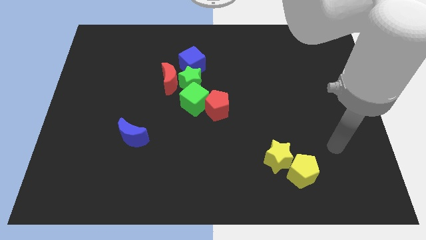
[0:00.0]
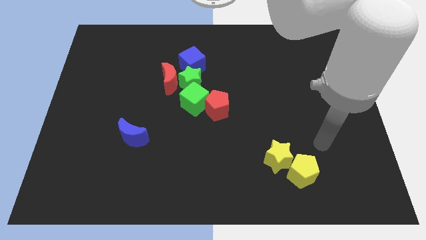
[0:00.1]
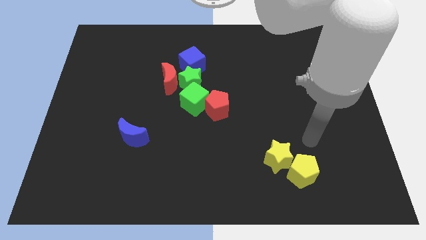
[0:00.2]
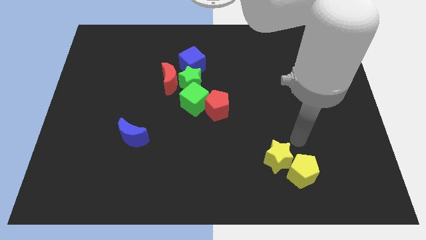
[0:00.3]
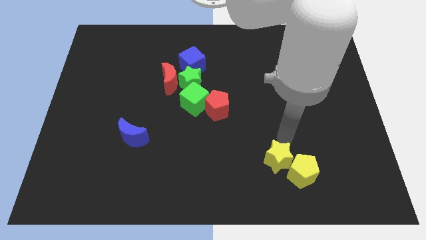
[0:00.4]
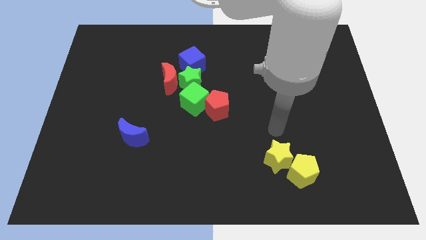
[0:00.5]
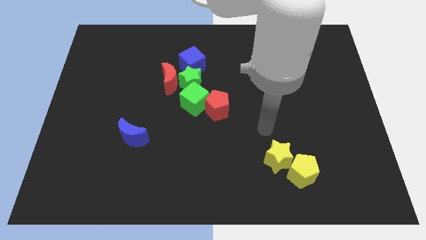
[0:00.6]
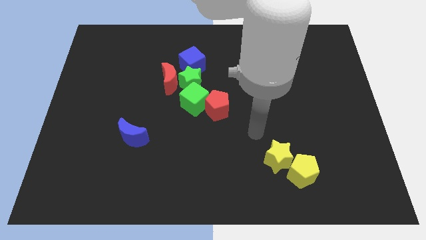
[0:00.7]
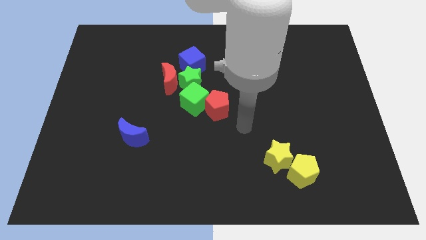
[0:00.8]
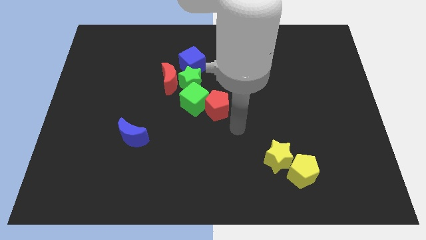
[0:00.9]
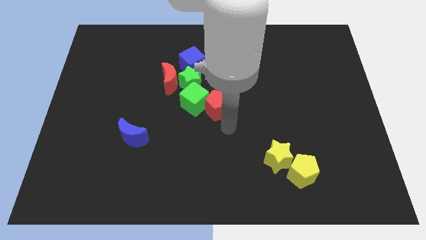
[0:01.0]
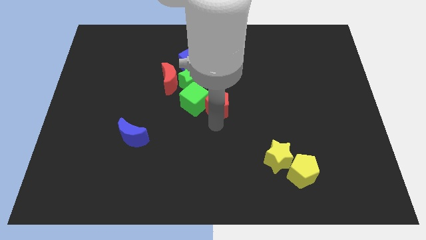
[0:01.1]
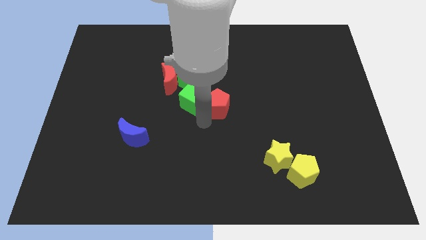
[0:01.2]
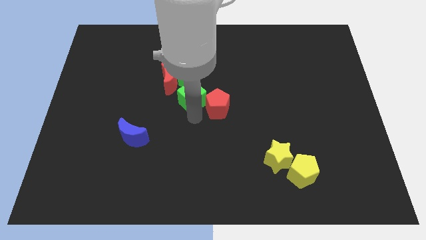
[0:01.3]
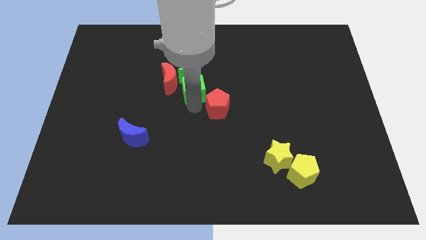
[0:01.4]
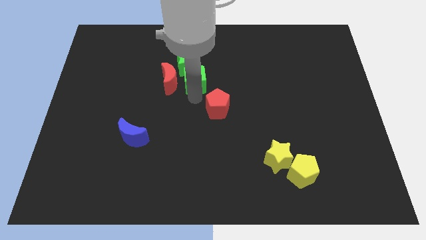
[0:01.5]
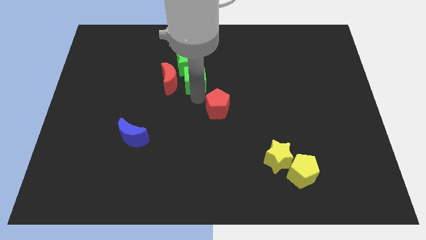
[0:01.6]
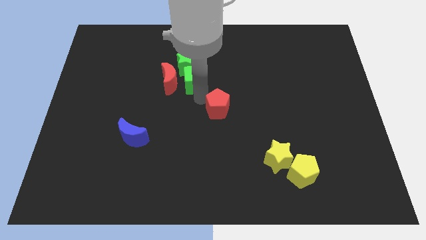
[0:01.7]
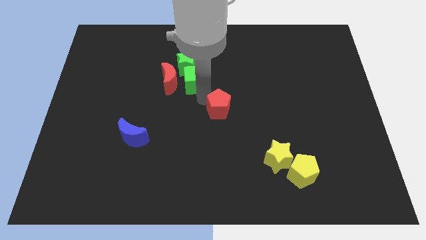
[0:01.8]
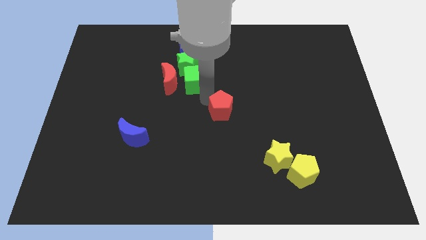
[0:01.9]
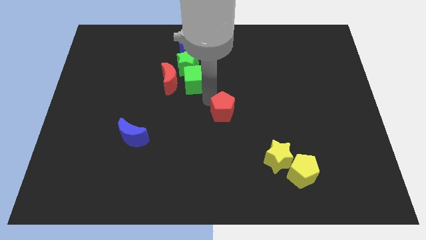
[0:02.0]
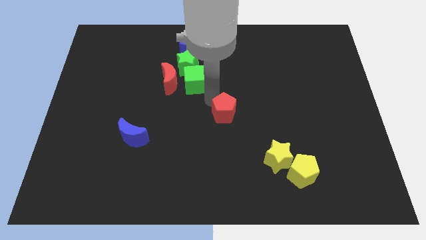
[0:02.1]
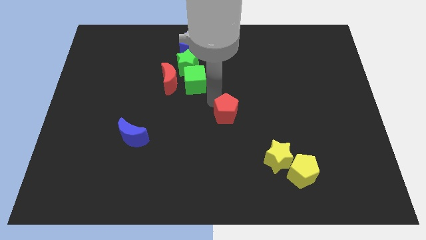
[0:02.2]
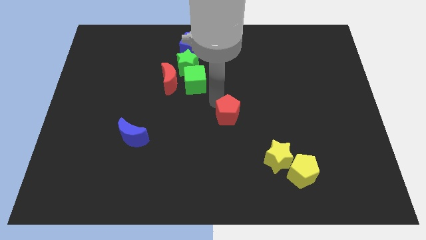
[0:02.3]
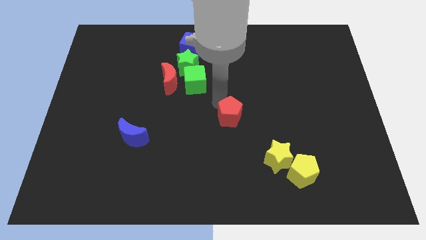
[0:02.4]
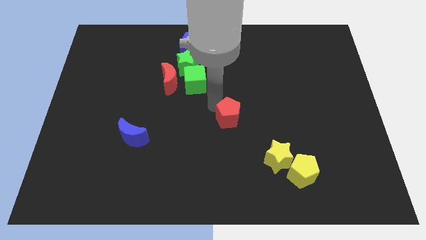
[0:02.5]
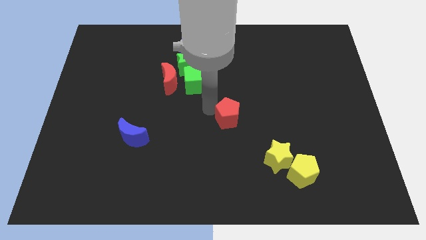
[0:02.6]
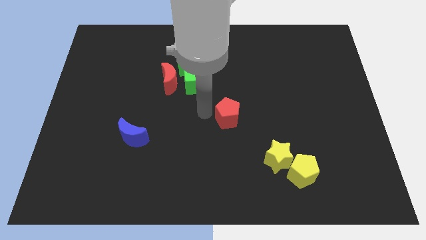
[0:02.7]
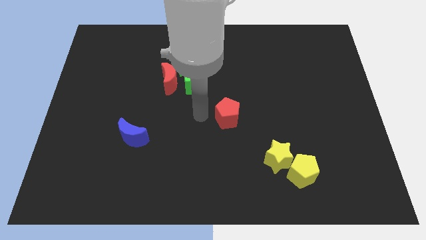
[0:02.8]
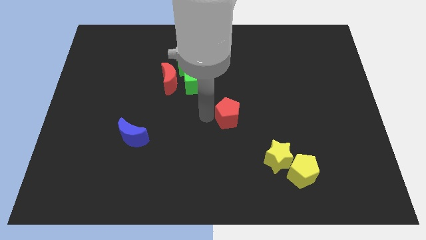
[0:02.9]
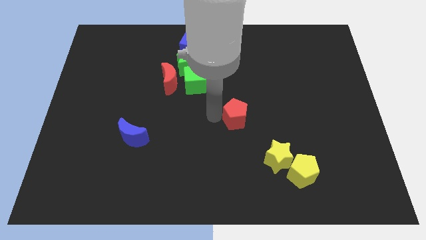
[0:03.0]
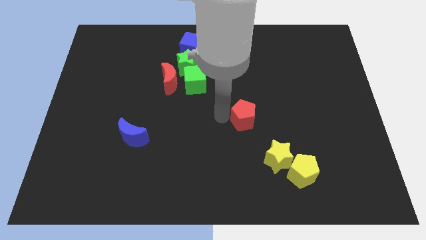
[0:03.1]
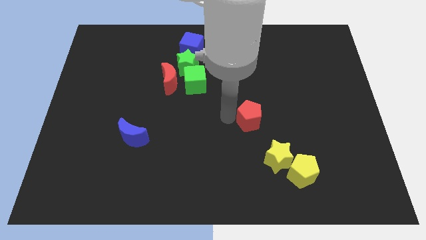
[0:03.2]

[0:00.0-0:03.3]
push the red pentagon a little to the right

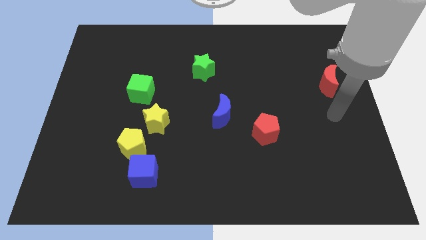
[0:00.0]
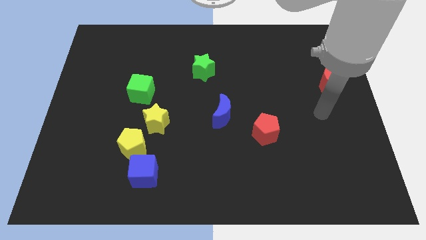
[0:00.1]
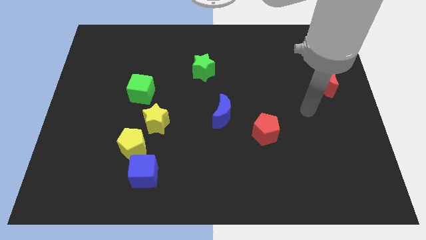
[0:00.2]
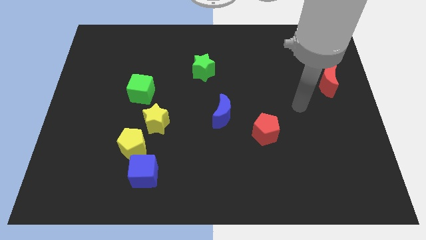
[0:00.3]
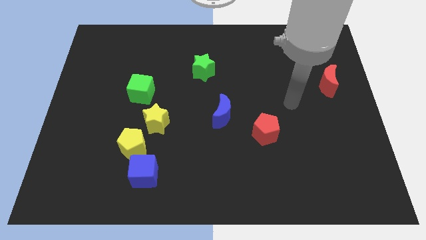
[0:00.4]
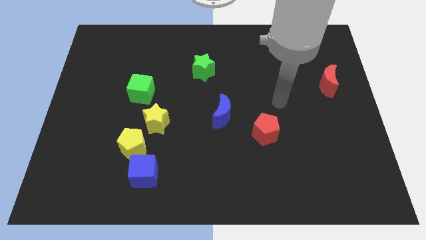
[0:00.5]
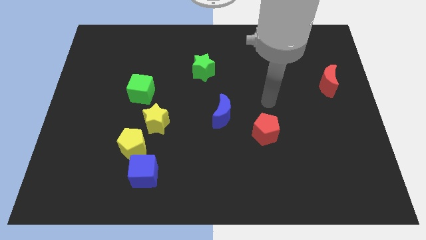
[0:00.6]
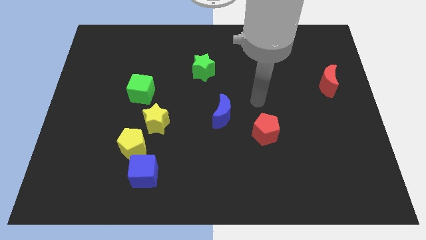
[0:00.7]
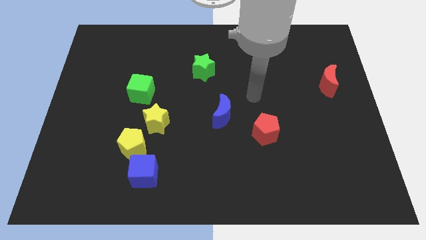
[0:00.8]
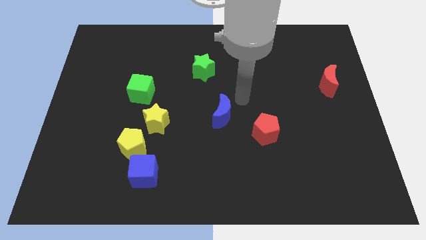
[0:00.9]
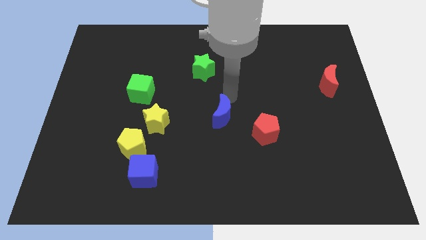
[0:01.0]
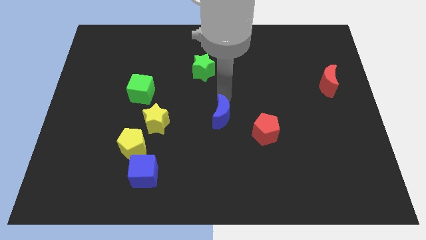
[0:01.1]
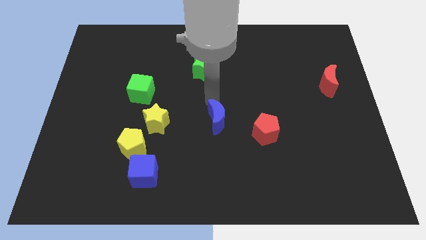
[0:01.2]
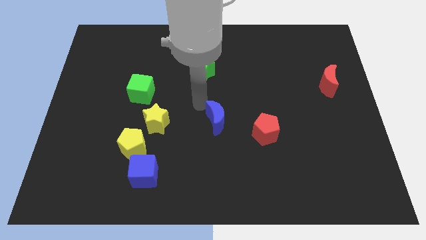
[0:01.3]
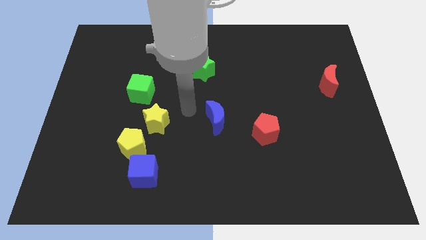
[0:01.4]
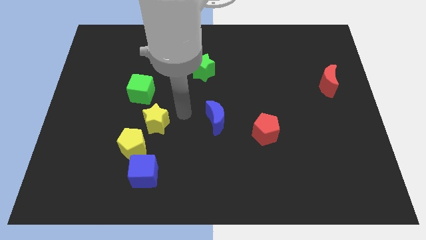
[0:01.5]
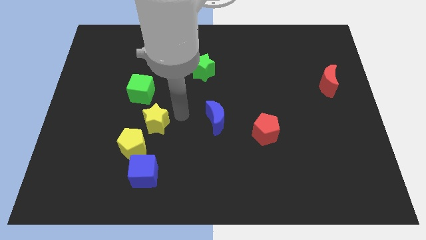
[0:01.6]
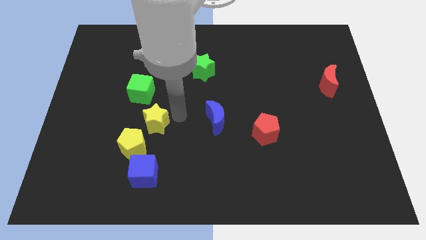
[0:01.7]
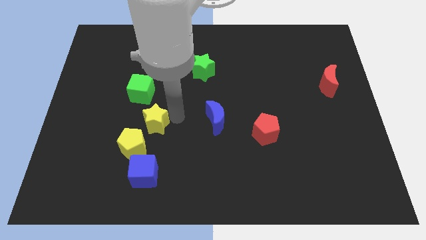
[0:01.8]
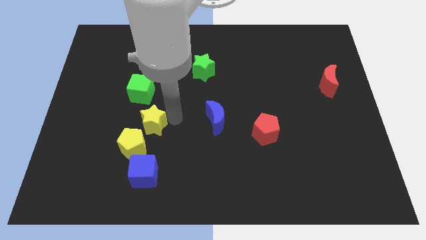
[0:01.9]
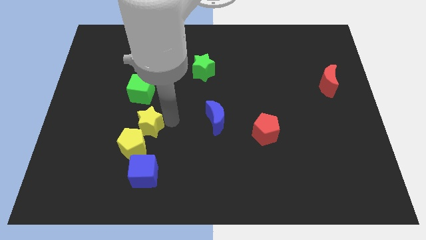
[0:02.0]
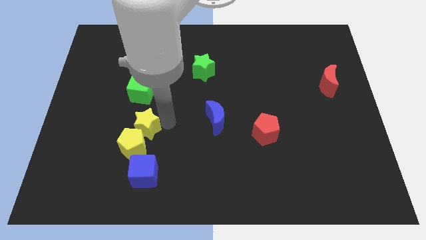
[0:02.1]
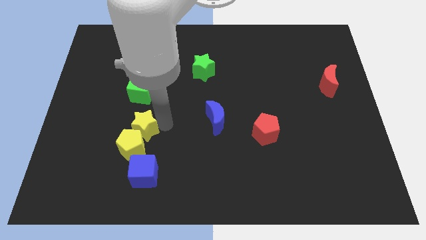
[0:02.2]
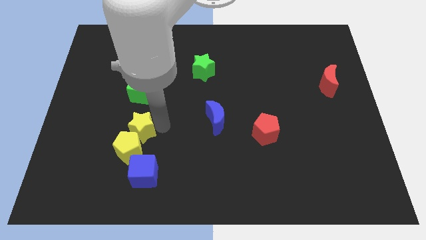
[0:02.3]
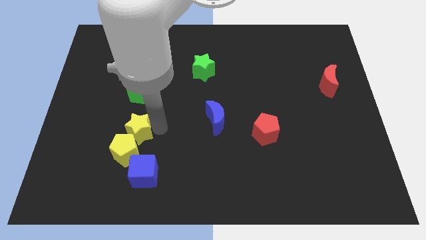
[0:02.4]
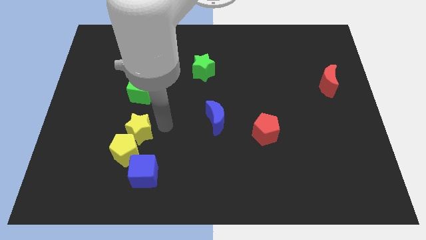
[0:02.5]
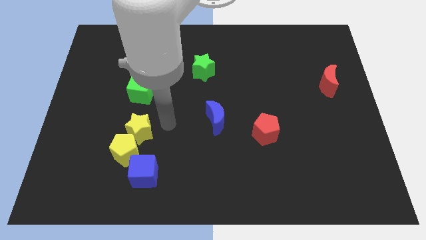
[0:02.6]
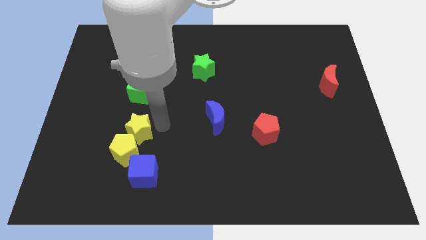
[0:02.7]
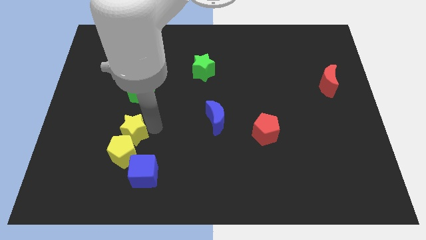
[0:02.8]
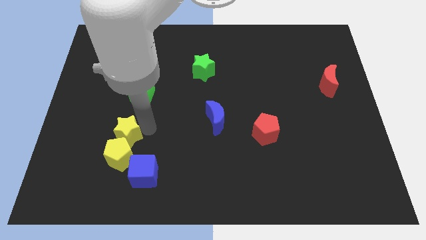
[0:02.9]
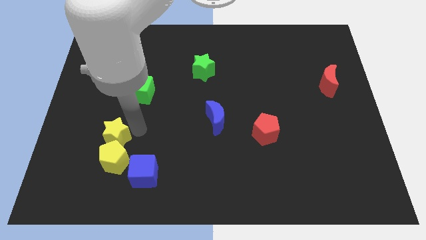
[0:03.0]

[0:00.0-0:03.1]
push the yellow star downwards and then to the left a bit

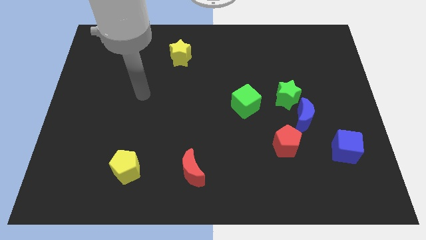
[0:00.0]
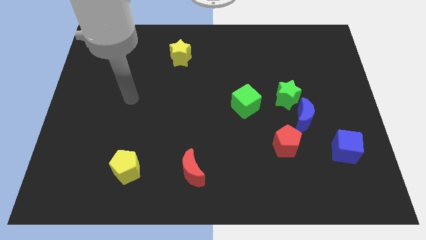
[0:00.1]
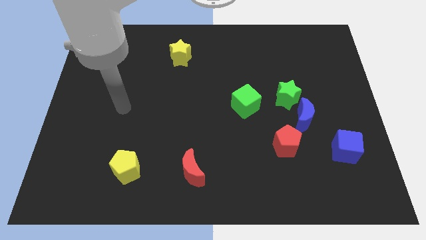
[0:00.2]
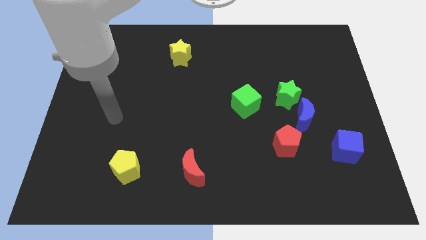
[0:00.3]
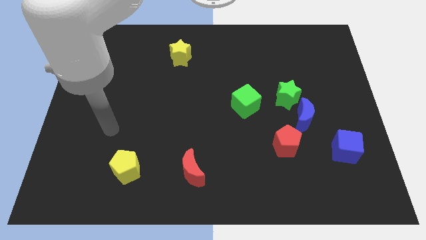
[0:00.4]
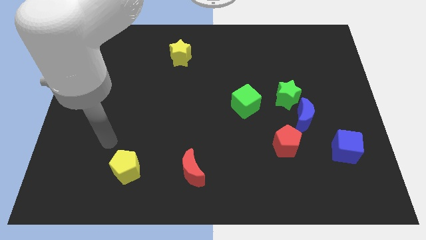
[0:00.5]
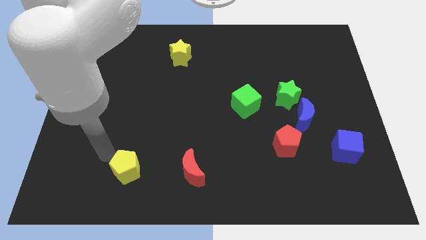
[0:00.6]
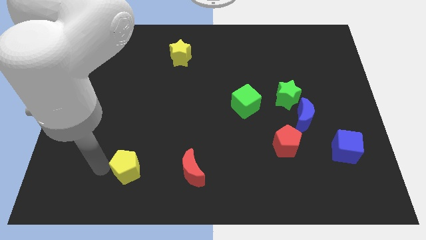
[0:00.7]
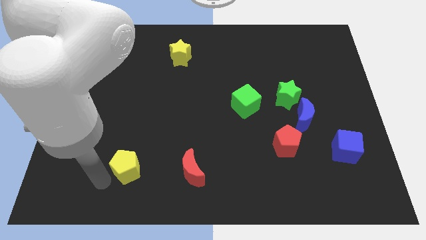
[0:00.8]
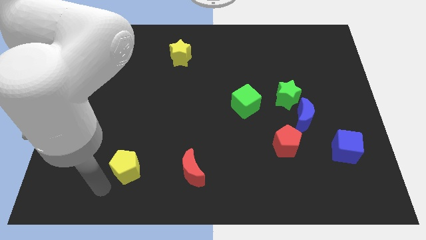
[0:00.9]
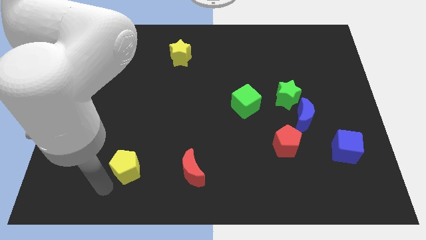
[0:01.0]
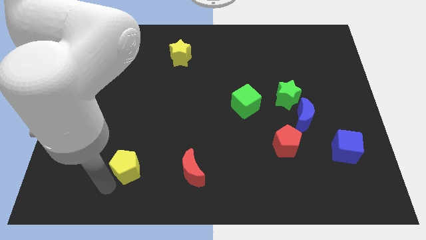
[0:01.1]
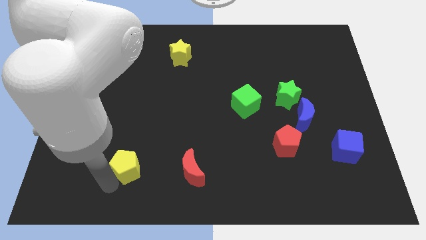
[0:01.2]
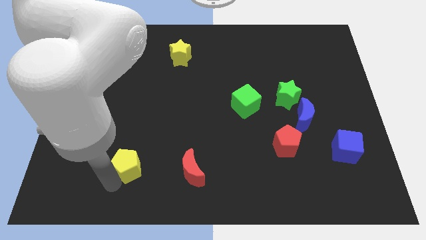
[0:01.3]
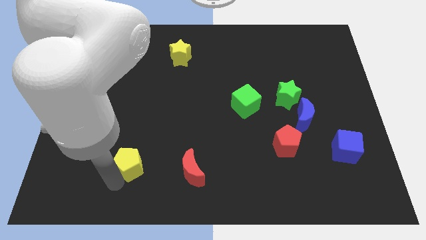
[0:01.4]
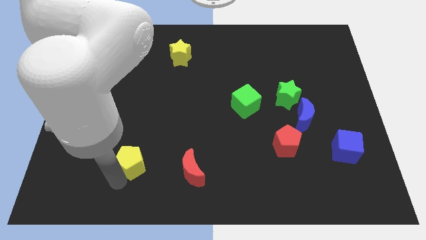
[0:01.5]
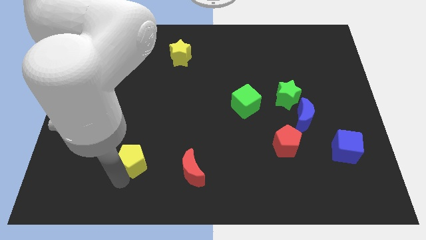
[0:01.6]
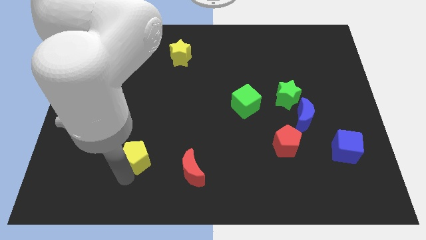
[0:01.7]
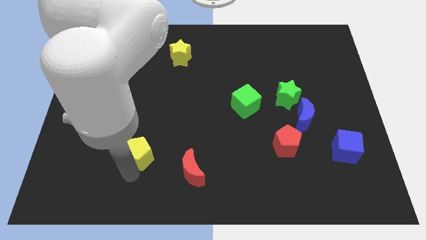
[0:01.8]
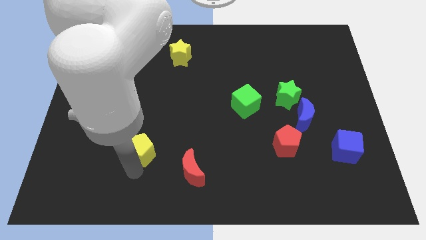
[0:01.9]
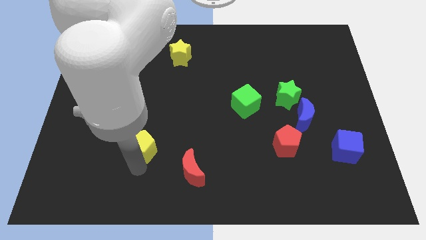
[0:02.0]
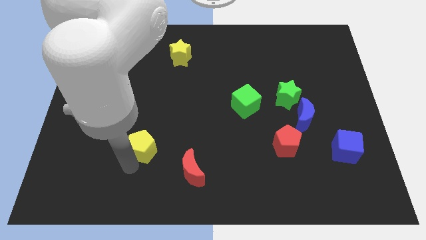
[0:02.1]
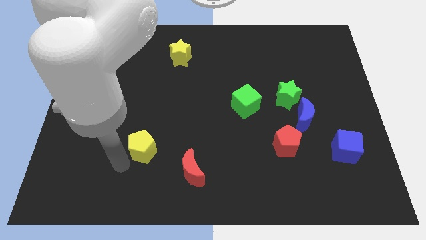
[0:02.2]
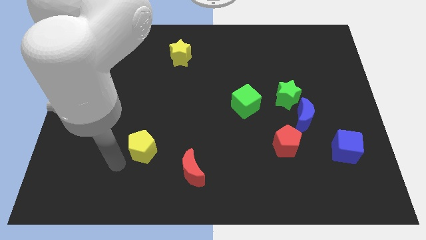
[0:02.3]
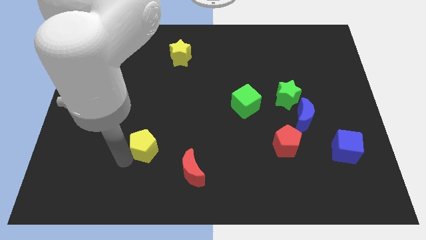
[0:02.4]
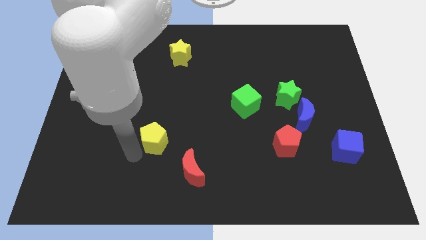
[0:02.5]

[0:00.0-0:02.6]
move the yellow pentagon slightly upwards and right
